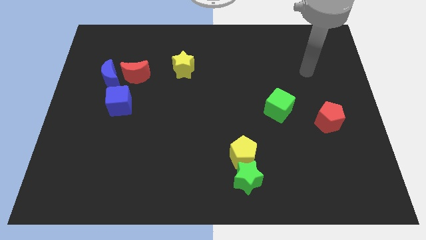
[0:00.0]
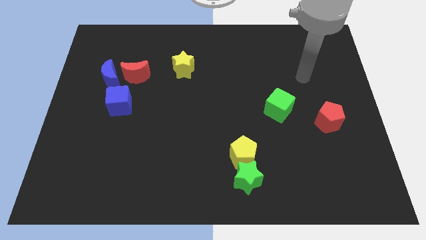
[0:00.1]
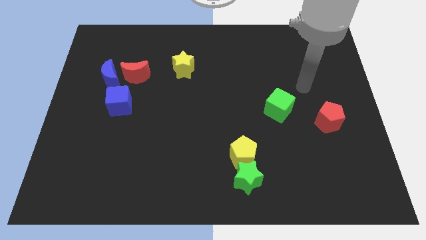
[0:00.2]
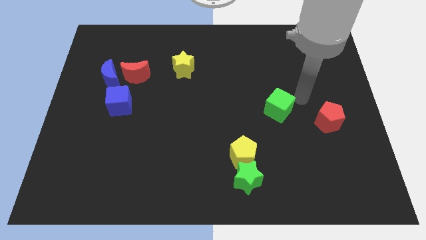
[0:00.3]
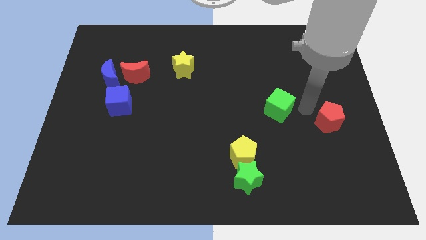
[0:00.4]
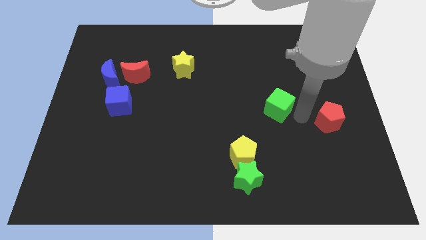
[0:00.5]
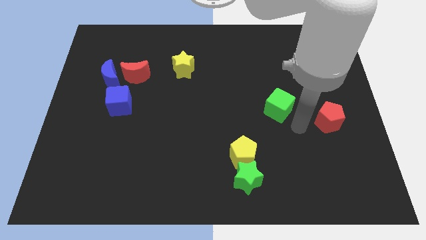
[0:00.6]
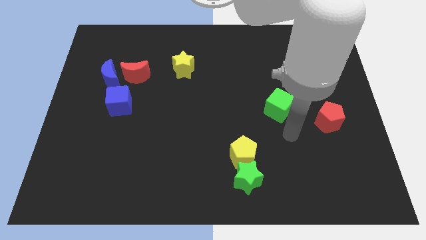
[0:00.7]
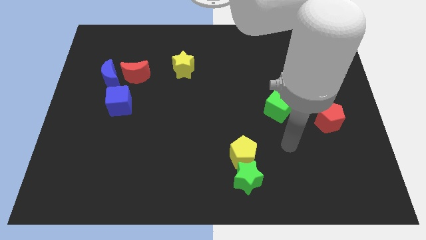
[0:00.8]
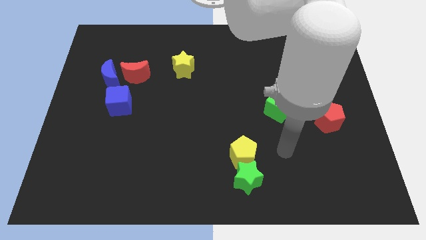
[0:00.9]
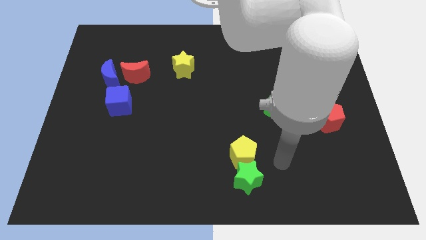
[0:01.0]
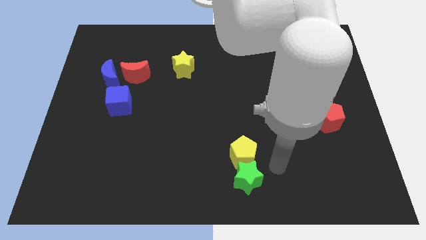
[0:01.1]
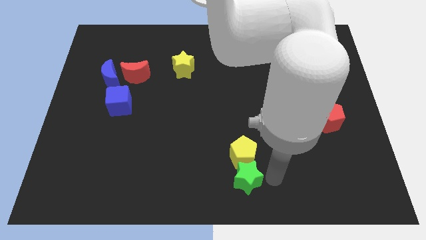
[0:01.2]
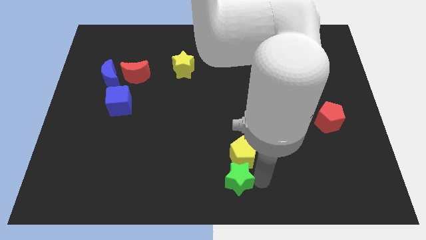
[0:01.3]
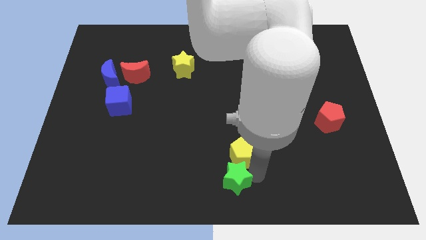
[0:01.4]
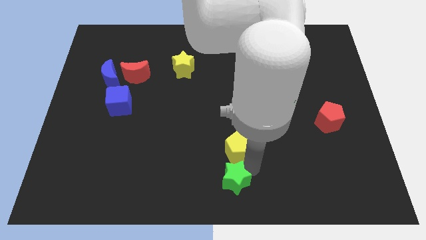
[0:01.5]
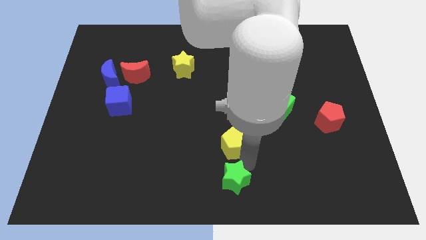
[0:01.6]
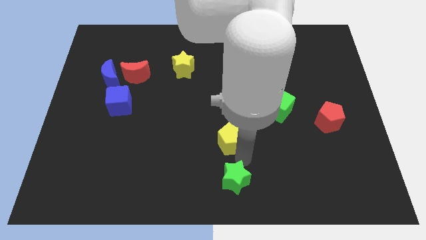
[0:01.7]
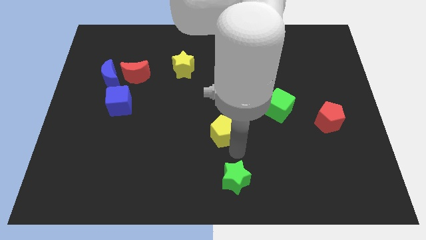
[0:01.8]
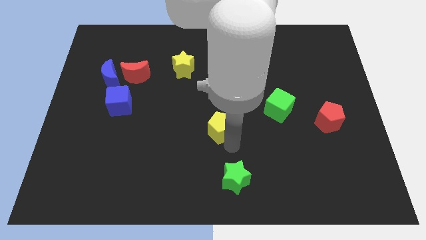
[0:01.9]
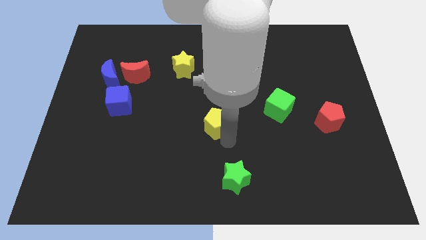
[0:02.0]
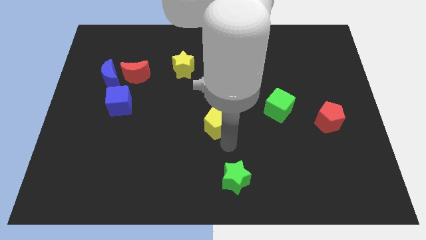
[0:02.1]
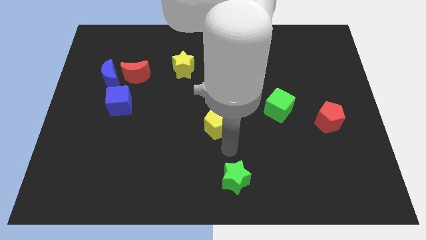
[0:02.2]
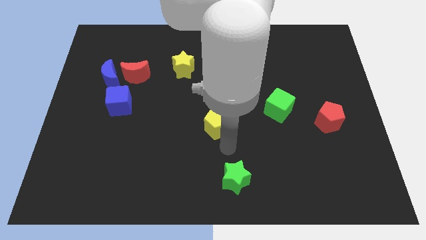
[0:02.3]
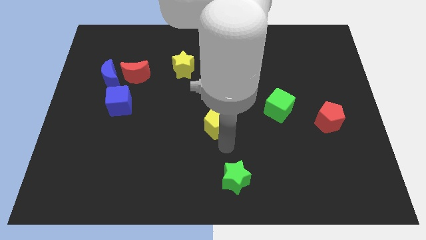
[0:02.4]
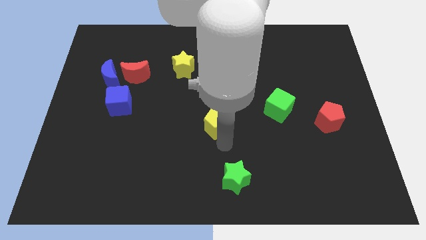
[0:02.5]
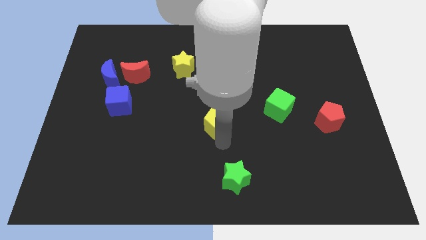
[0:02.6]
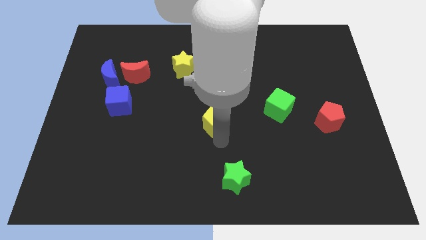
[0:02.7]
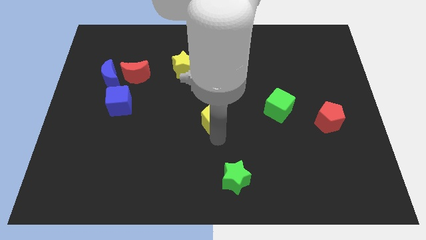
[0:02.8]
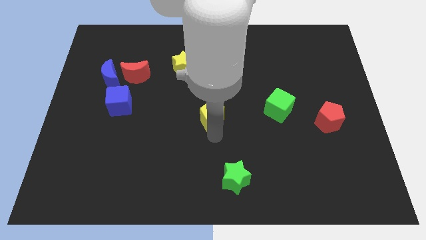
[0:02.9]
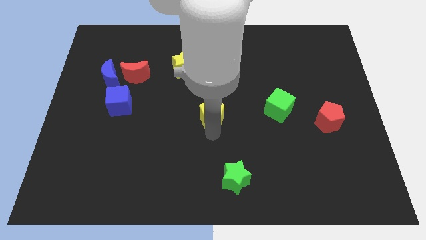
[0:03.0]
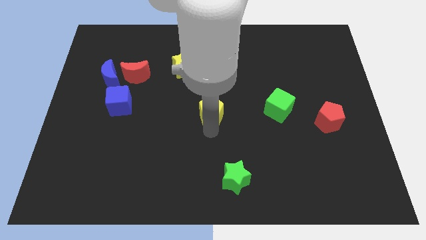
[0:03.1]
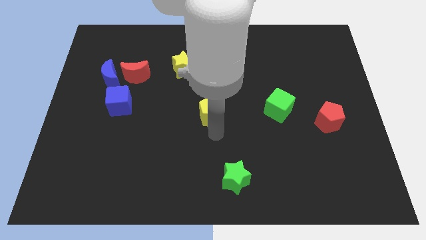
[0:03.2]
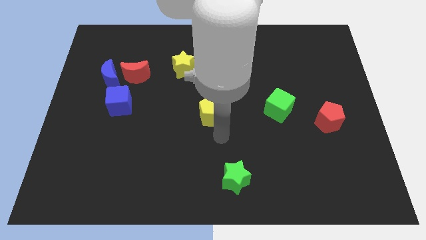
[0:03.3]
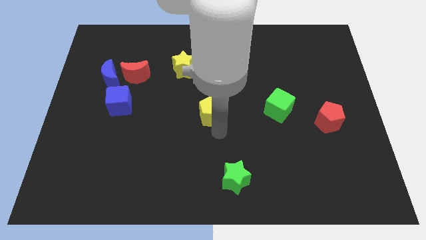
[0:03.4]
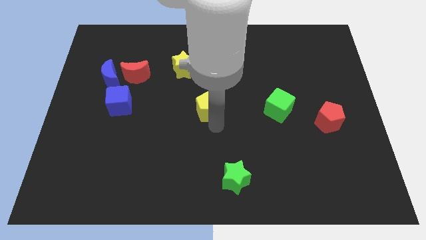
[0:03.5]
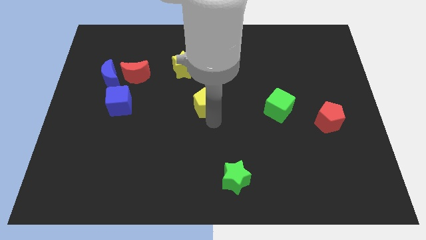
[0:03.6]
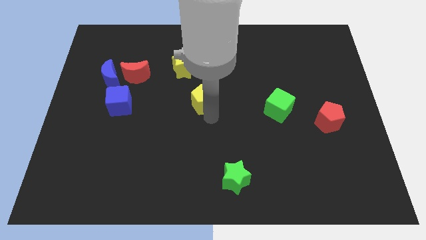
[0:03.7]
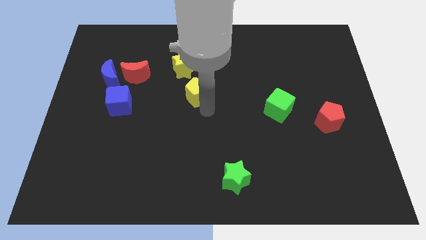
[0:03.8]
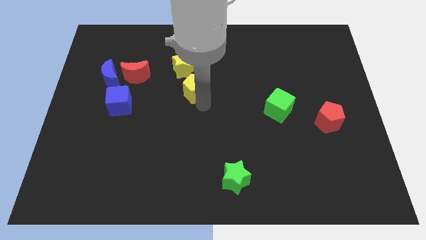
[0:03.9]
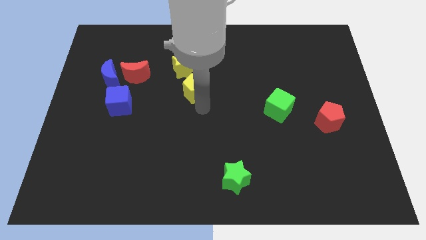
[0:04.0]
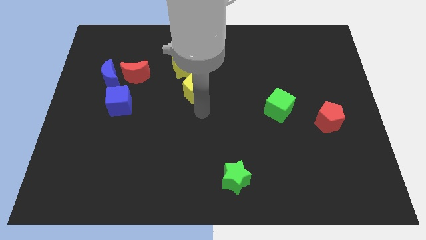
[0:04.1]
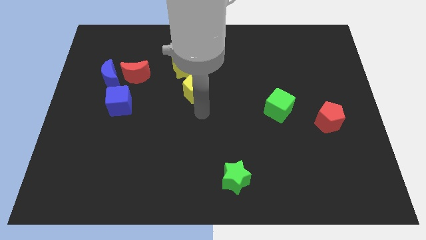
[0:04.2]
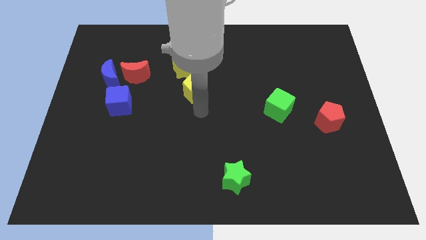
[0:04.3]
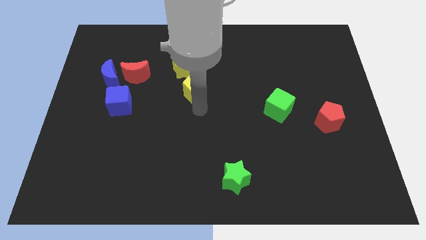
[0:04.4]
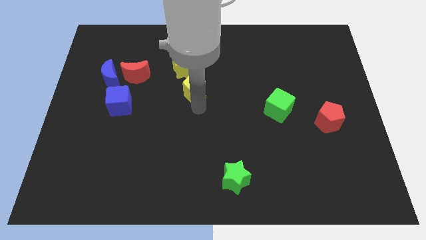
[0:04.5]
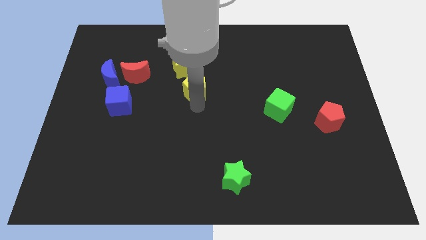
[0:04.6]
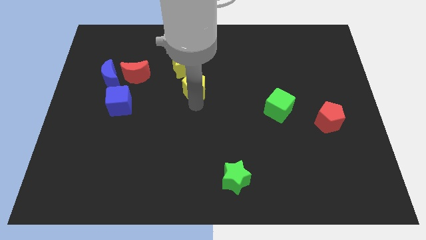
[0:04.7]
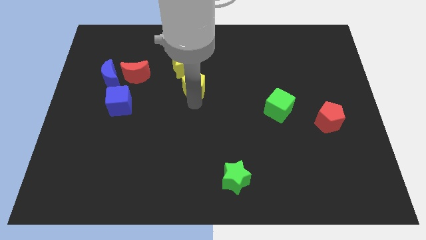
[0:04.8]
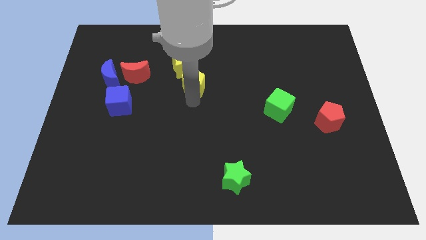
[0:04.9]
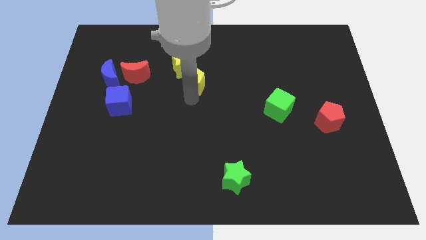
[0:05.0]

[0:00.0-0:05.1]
slide the yellow pentagon next to the yellow star

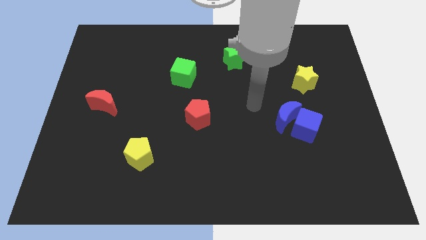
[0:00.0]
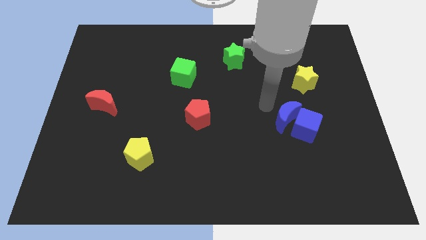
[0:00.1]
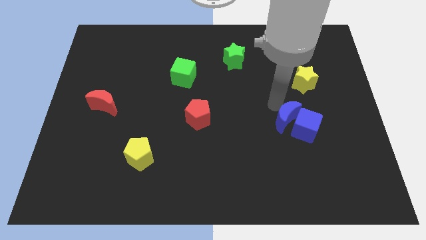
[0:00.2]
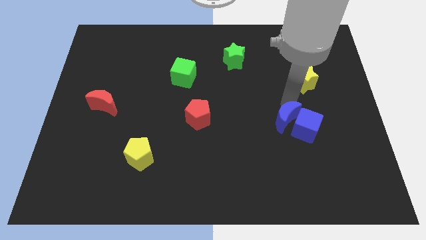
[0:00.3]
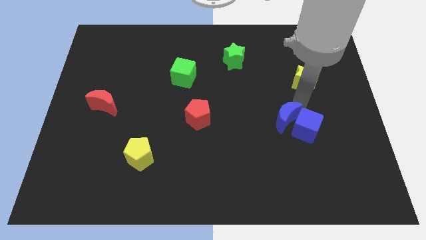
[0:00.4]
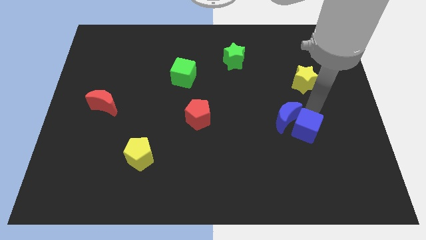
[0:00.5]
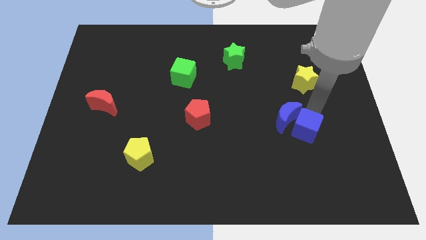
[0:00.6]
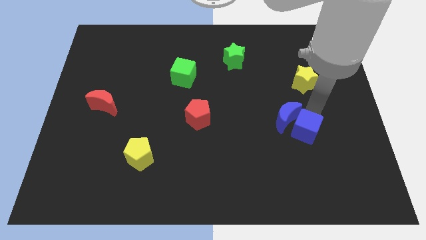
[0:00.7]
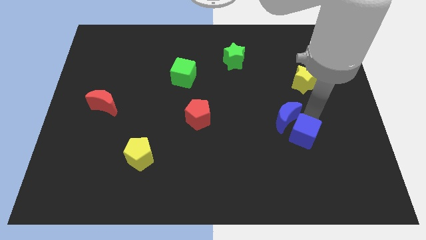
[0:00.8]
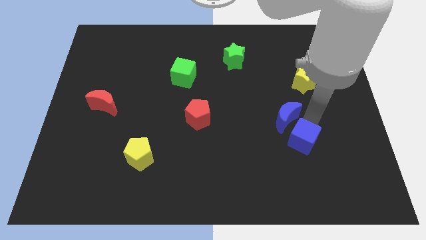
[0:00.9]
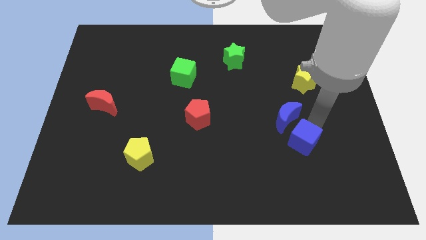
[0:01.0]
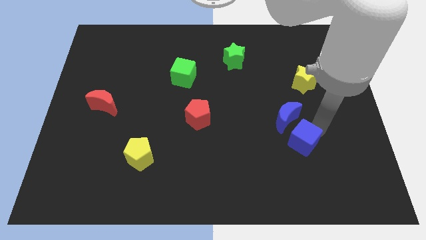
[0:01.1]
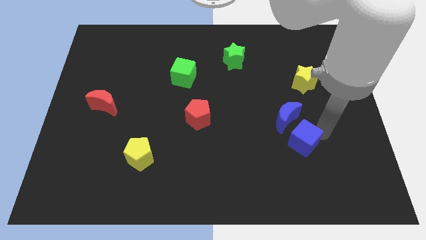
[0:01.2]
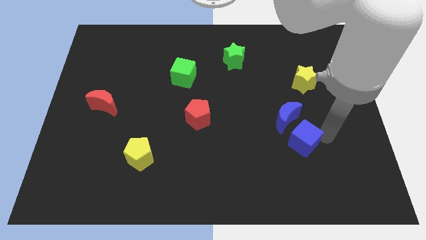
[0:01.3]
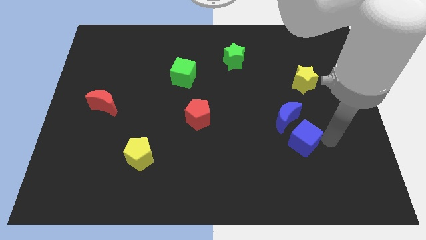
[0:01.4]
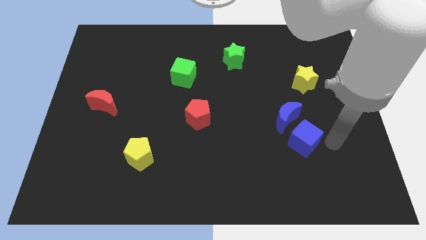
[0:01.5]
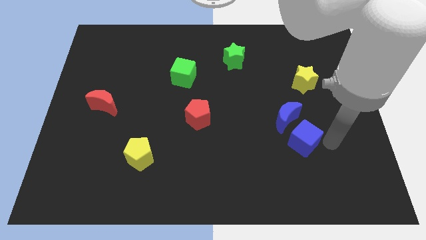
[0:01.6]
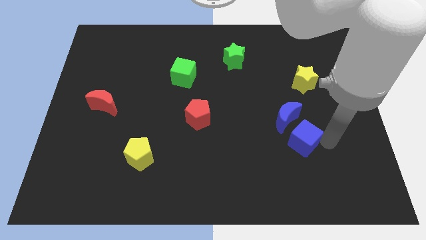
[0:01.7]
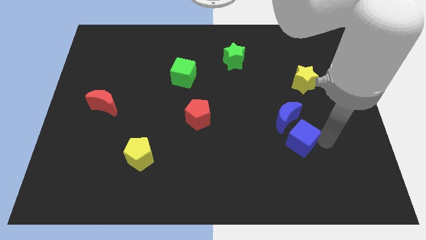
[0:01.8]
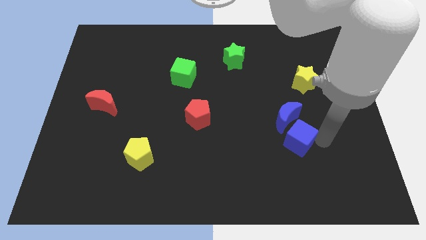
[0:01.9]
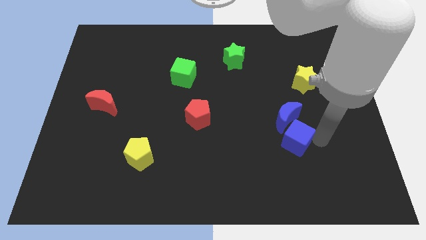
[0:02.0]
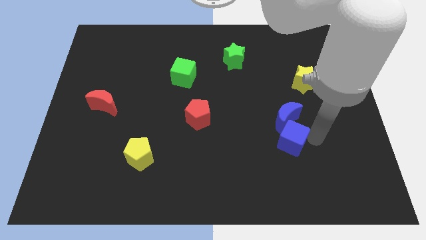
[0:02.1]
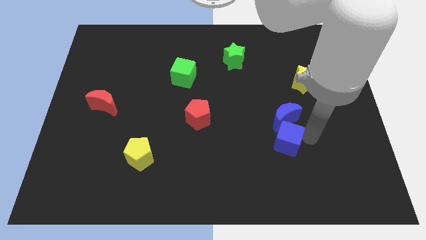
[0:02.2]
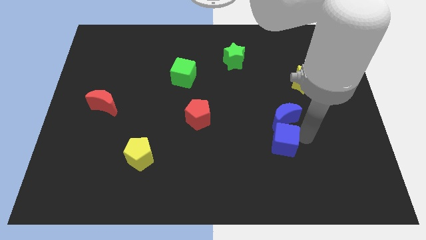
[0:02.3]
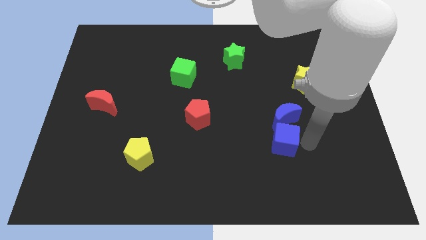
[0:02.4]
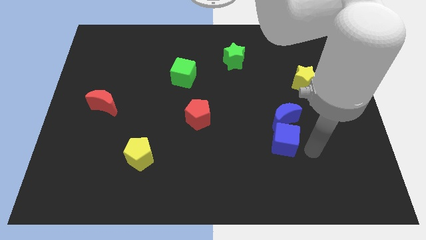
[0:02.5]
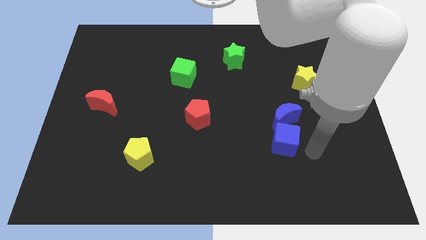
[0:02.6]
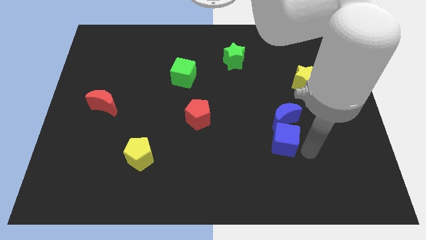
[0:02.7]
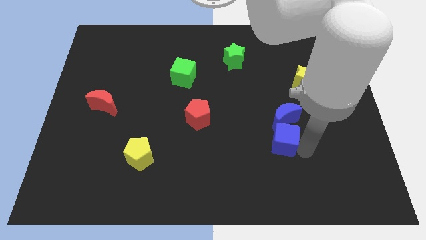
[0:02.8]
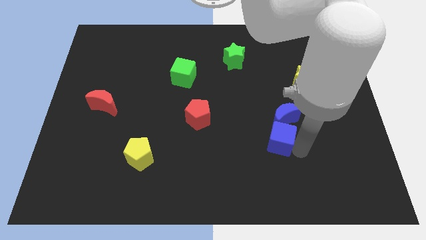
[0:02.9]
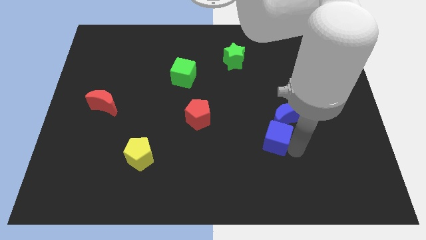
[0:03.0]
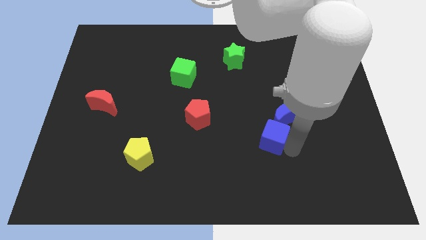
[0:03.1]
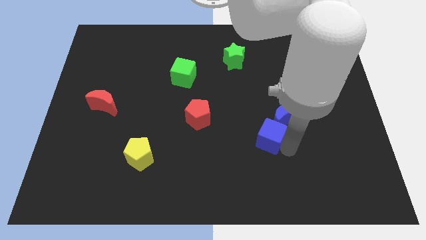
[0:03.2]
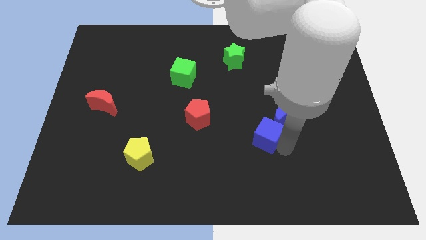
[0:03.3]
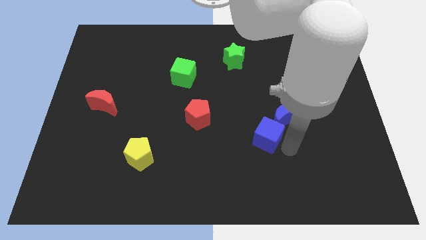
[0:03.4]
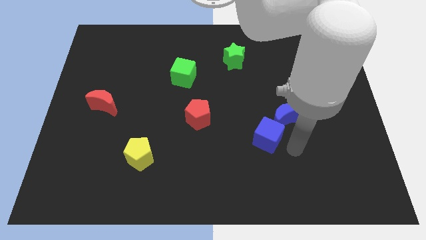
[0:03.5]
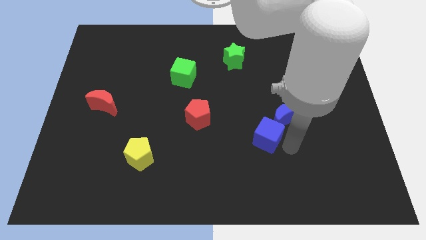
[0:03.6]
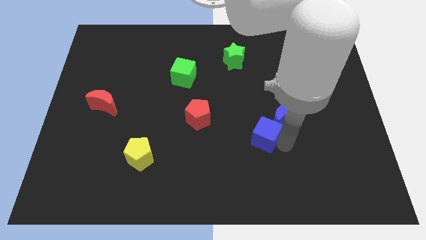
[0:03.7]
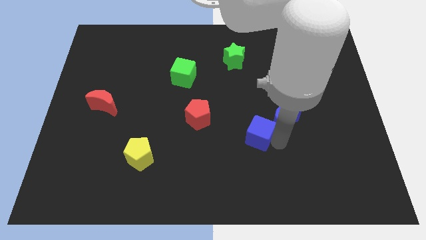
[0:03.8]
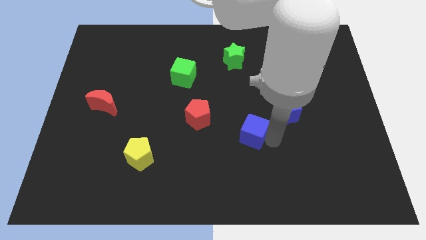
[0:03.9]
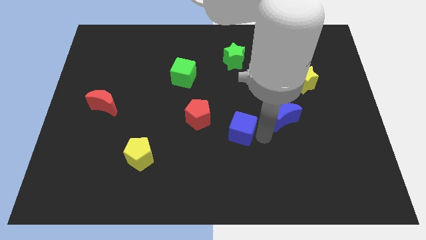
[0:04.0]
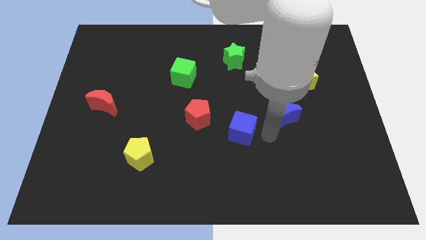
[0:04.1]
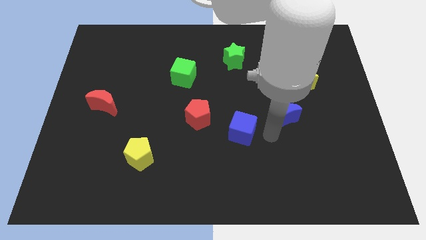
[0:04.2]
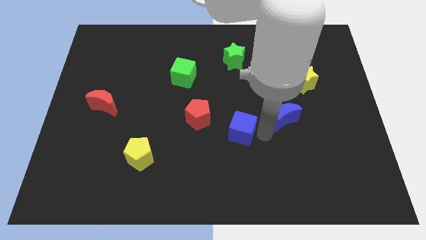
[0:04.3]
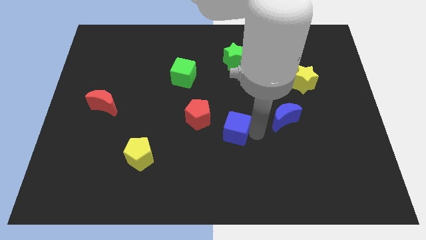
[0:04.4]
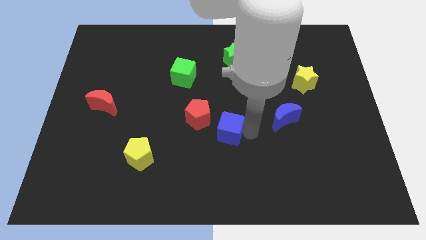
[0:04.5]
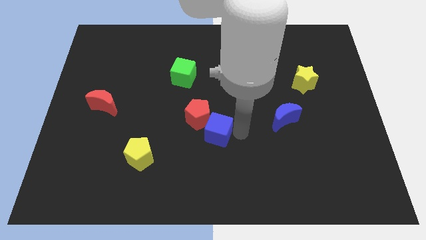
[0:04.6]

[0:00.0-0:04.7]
slide the blue cube towards the red pentagon
